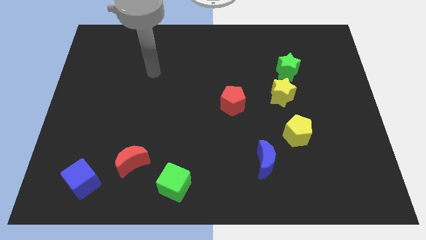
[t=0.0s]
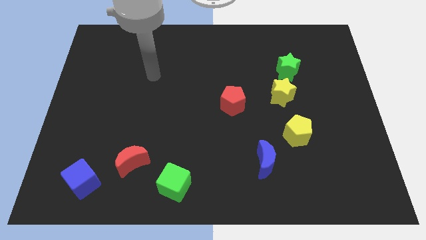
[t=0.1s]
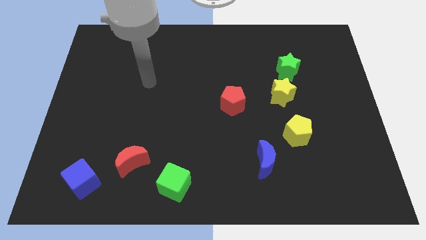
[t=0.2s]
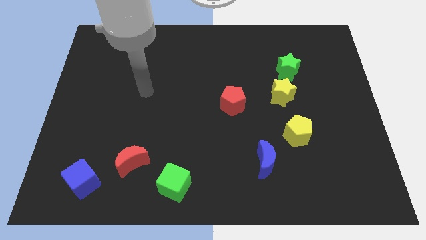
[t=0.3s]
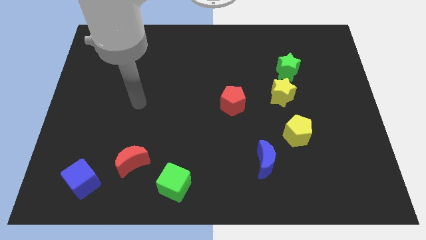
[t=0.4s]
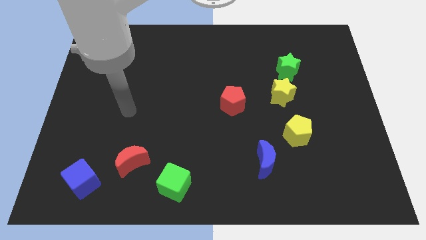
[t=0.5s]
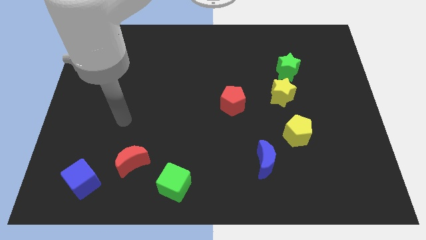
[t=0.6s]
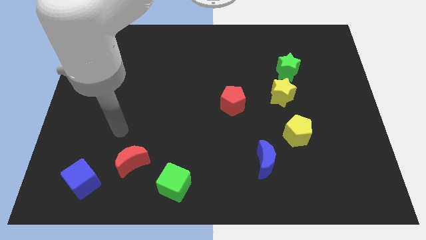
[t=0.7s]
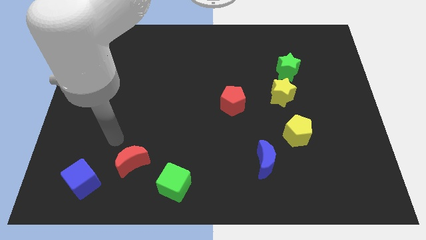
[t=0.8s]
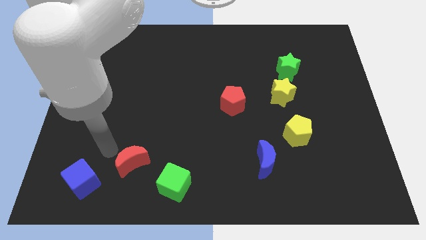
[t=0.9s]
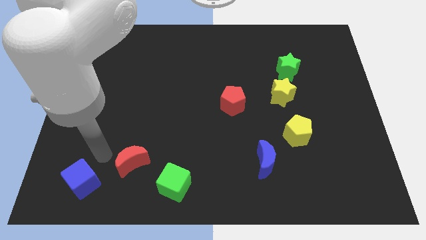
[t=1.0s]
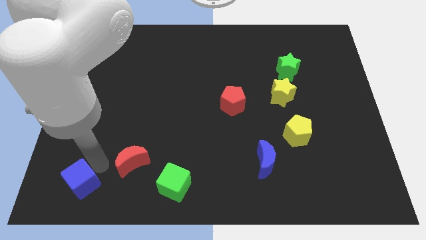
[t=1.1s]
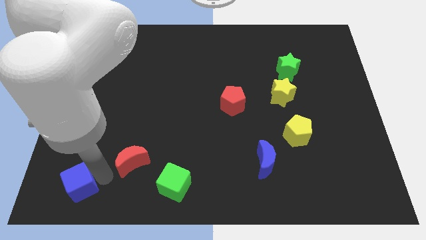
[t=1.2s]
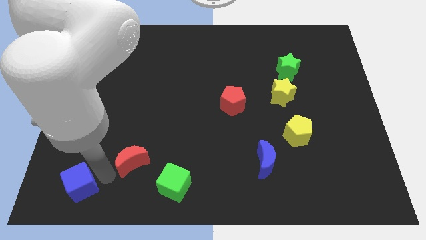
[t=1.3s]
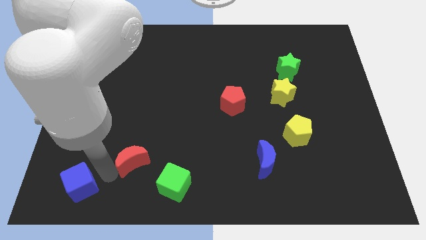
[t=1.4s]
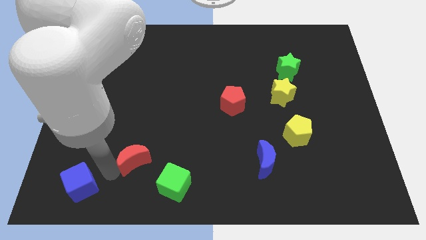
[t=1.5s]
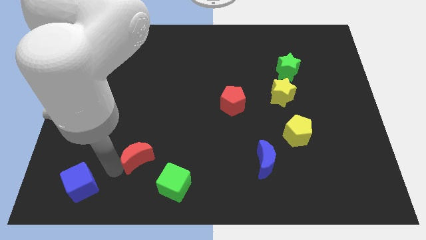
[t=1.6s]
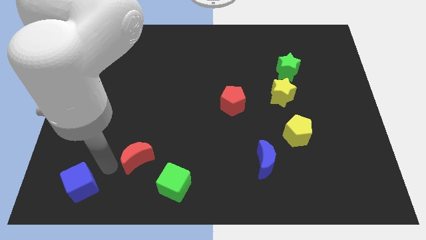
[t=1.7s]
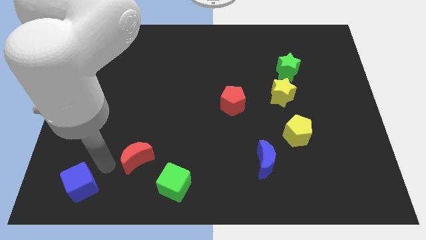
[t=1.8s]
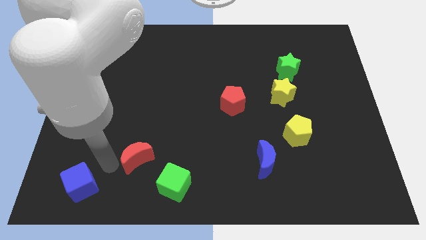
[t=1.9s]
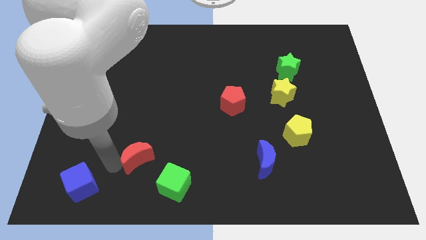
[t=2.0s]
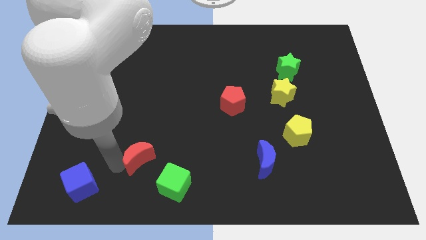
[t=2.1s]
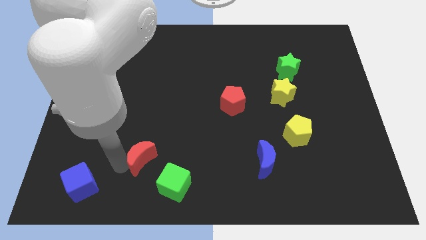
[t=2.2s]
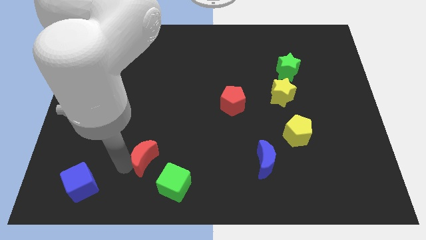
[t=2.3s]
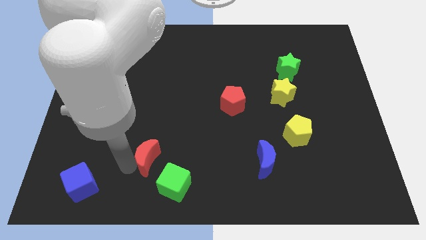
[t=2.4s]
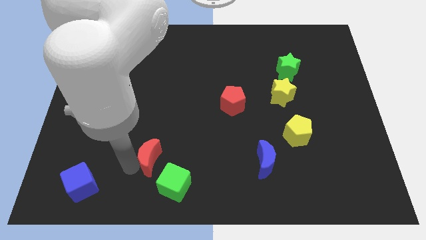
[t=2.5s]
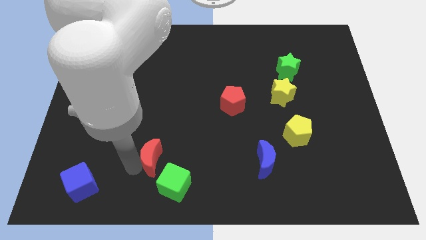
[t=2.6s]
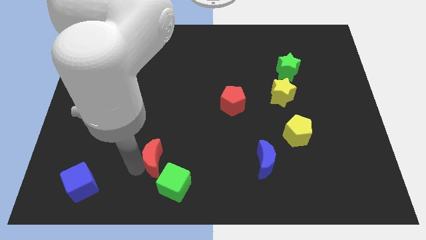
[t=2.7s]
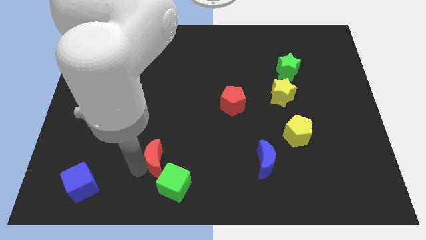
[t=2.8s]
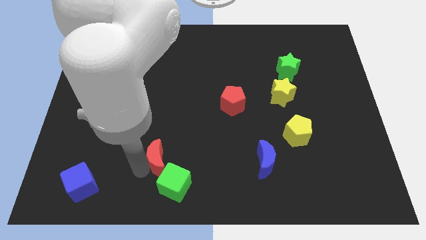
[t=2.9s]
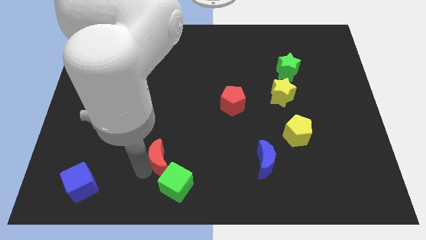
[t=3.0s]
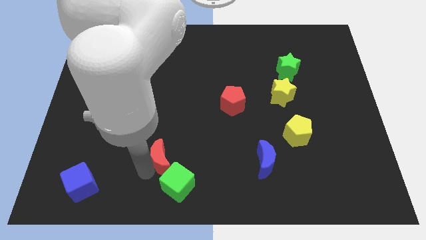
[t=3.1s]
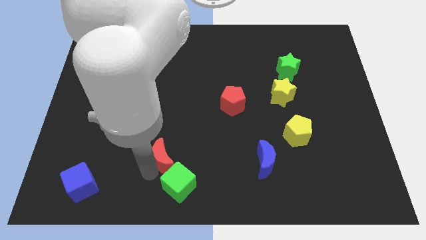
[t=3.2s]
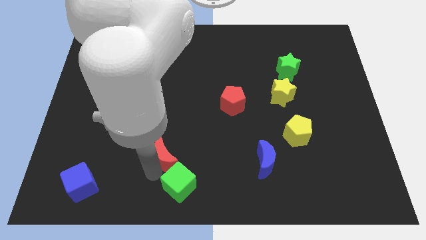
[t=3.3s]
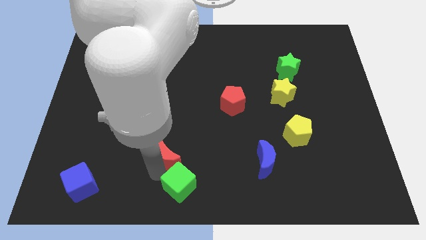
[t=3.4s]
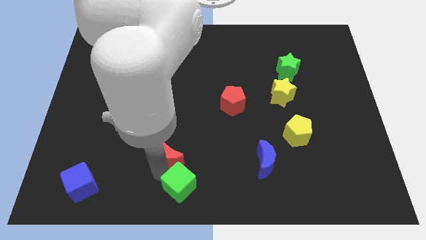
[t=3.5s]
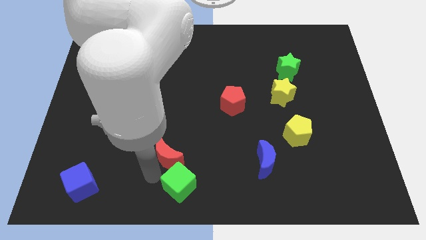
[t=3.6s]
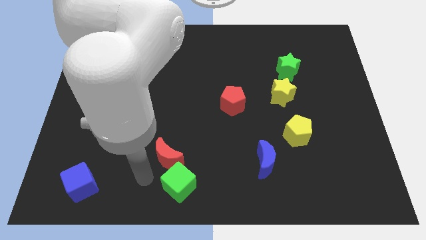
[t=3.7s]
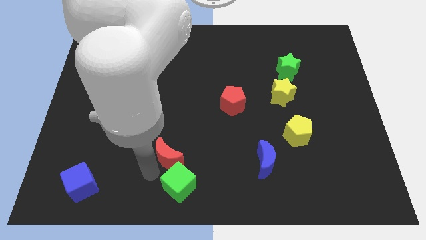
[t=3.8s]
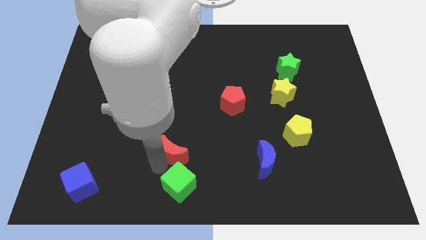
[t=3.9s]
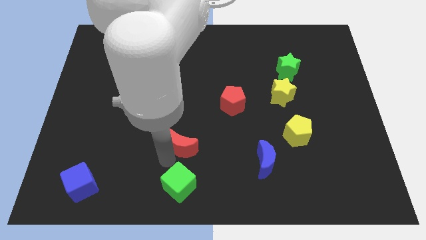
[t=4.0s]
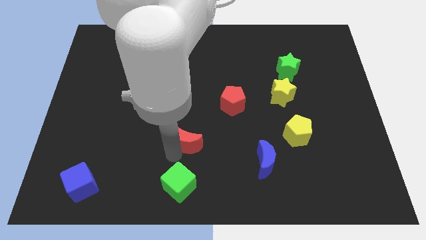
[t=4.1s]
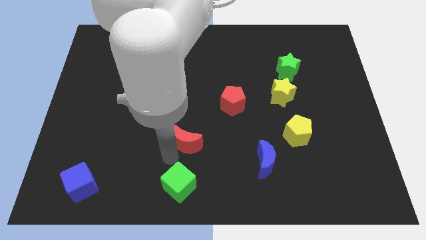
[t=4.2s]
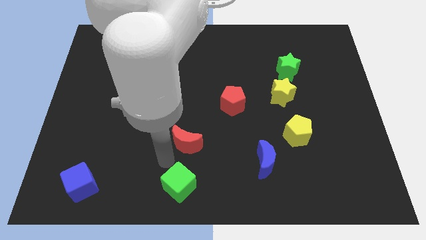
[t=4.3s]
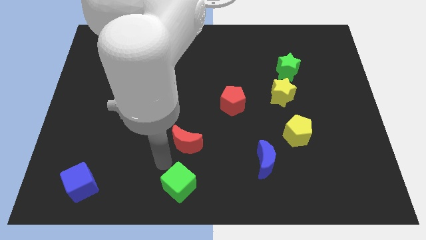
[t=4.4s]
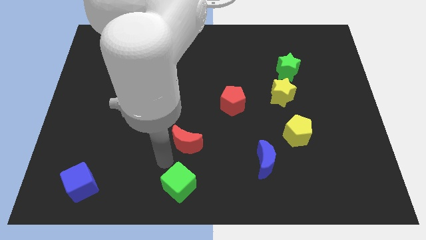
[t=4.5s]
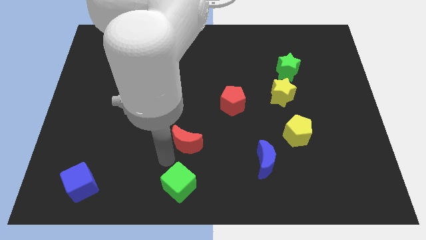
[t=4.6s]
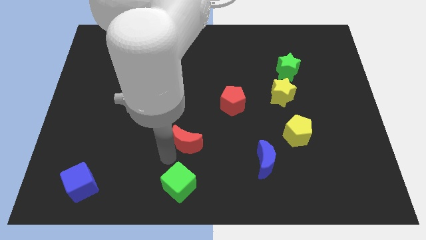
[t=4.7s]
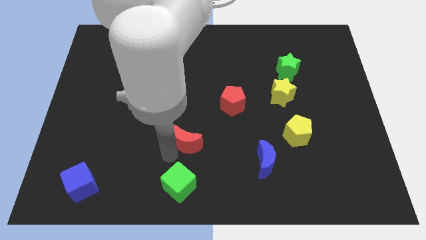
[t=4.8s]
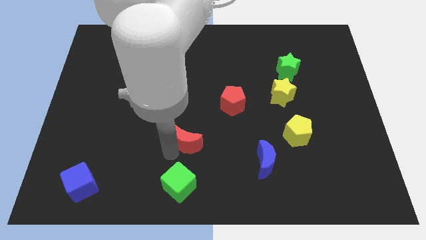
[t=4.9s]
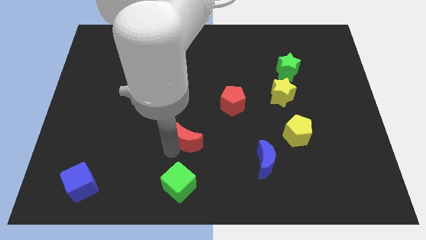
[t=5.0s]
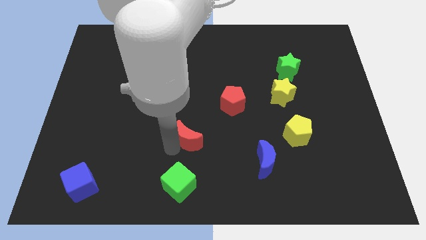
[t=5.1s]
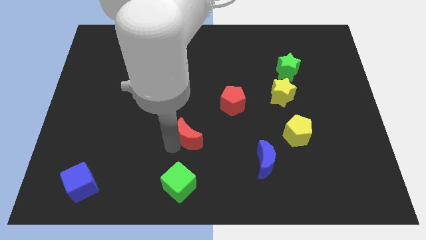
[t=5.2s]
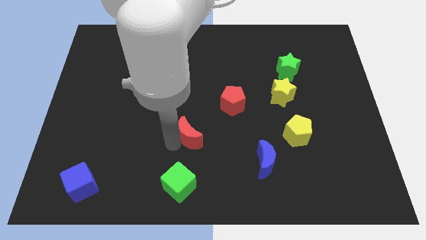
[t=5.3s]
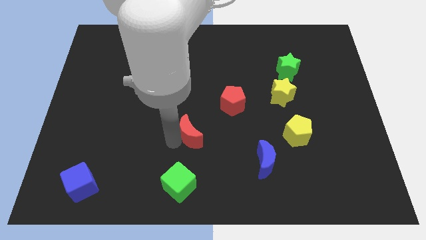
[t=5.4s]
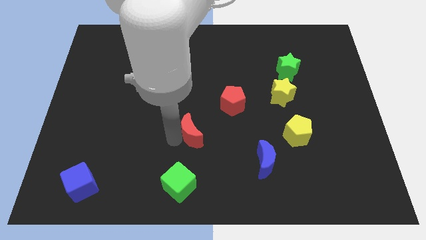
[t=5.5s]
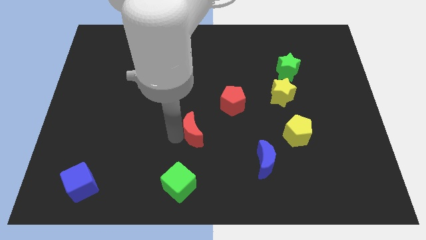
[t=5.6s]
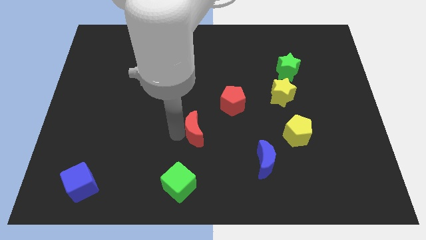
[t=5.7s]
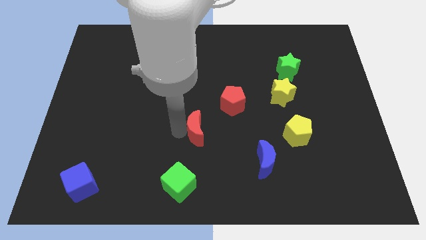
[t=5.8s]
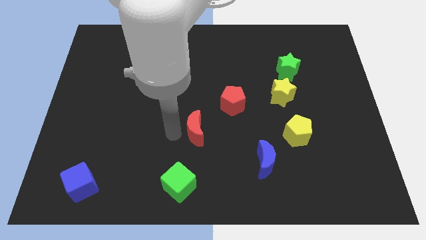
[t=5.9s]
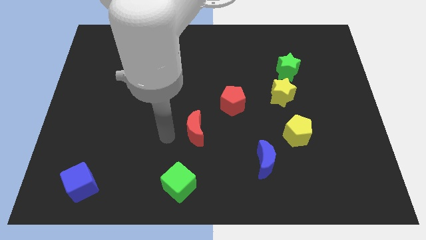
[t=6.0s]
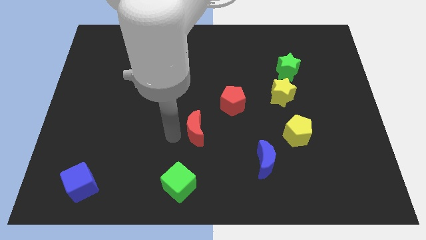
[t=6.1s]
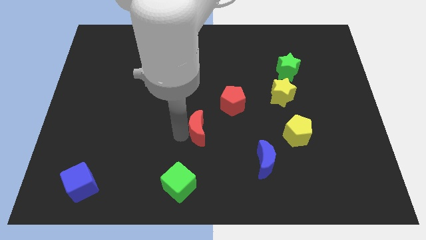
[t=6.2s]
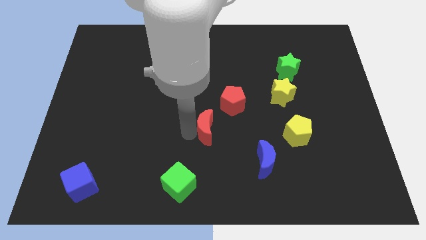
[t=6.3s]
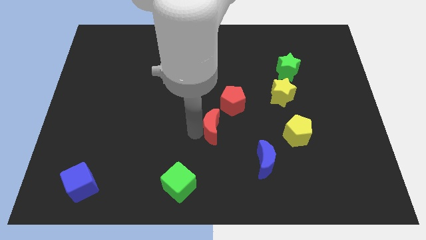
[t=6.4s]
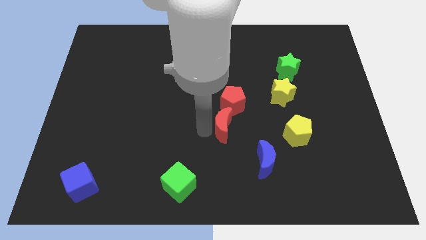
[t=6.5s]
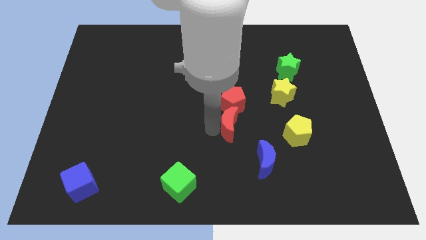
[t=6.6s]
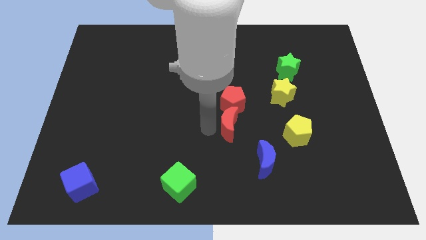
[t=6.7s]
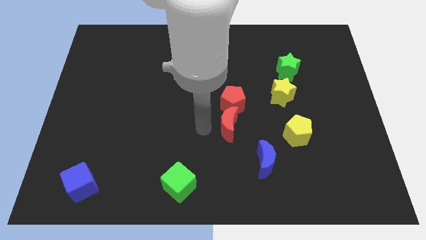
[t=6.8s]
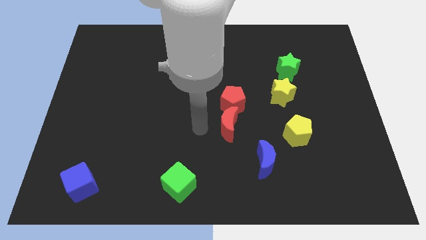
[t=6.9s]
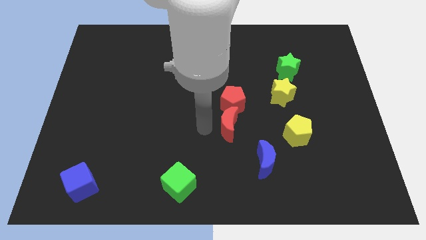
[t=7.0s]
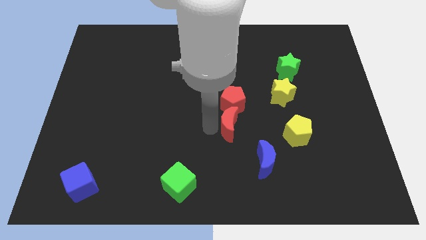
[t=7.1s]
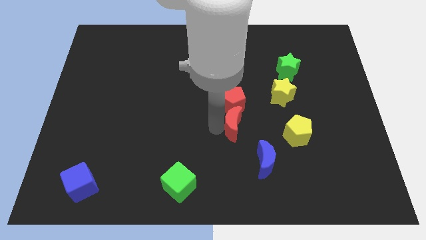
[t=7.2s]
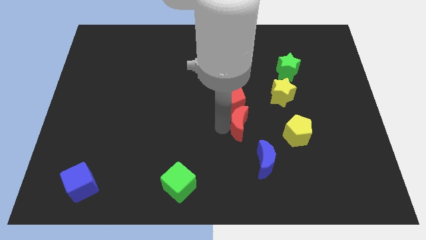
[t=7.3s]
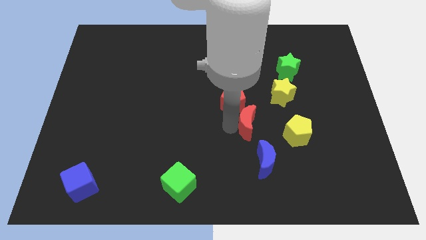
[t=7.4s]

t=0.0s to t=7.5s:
move the red moon above the blue moon
